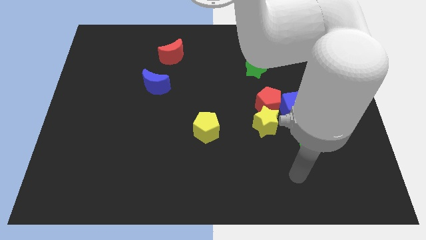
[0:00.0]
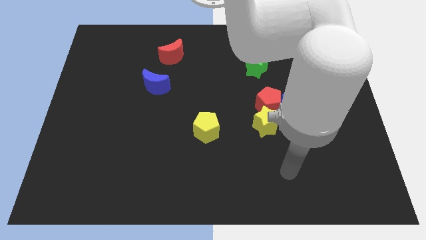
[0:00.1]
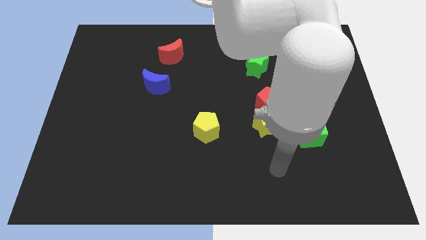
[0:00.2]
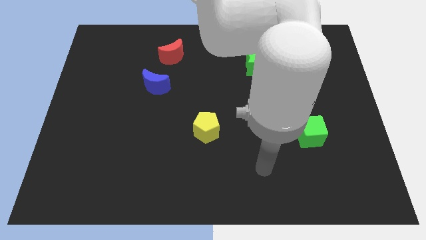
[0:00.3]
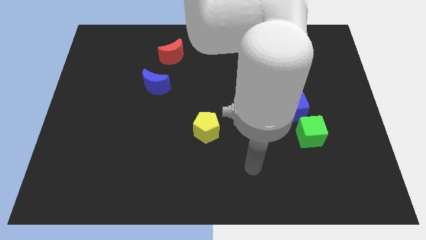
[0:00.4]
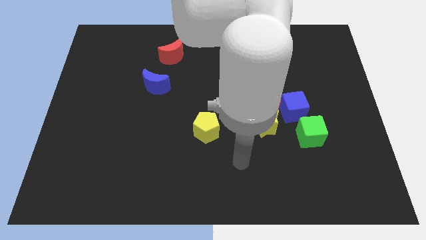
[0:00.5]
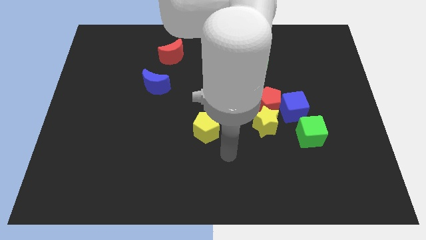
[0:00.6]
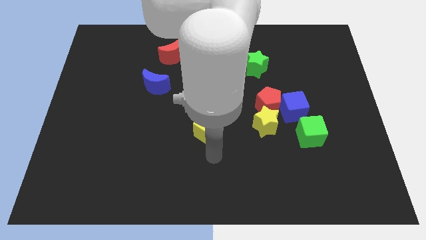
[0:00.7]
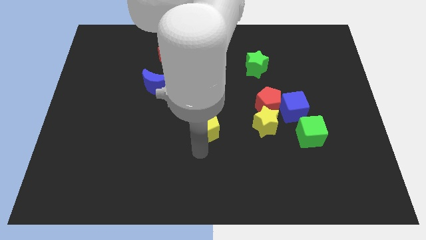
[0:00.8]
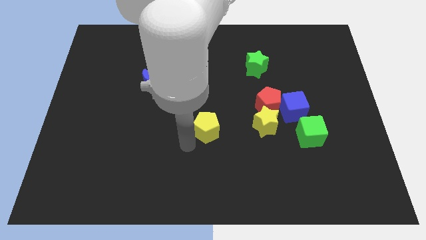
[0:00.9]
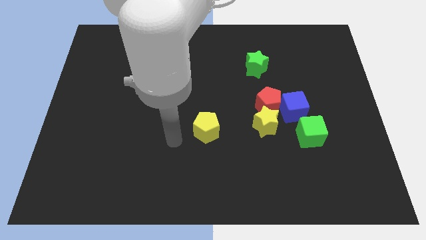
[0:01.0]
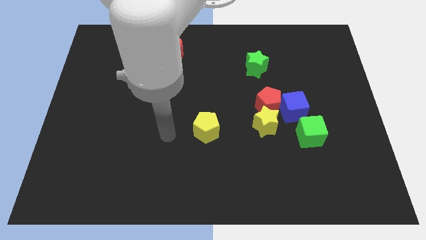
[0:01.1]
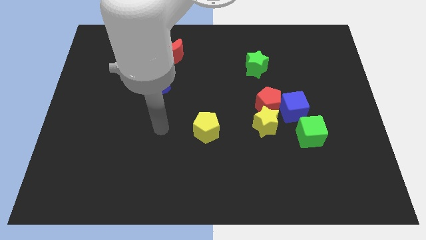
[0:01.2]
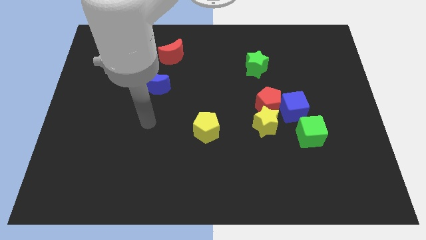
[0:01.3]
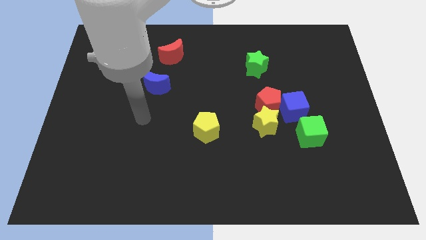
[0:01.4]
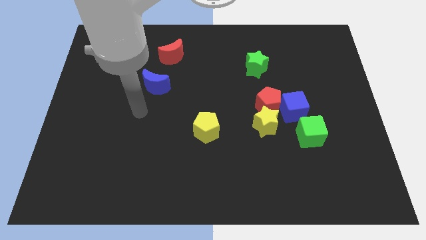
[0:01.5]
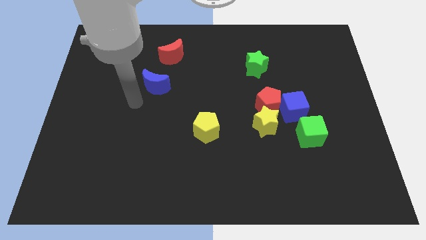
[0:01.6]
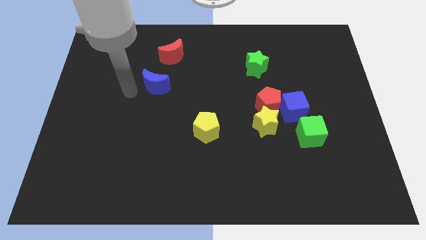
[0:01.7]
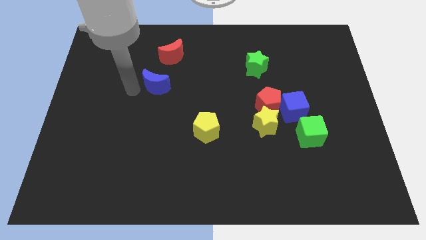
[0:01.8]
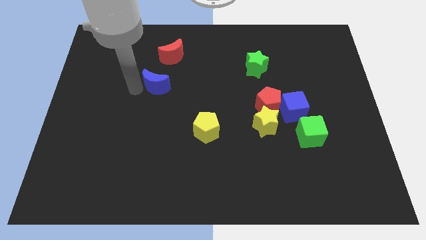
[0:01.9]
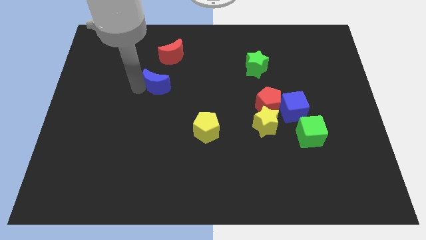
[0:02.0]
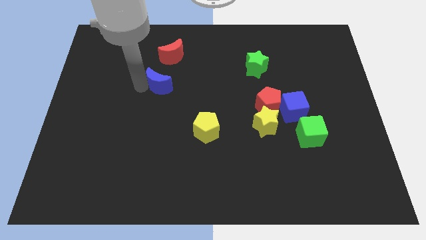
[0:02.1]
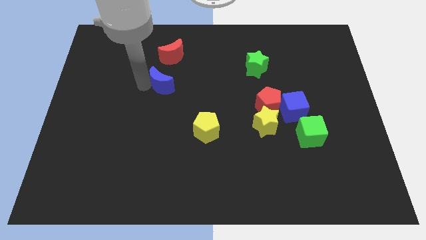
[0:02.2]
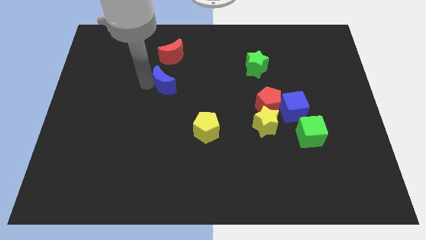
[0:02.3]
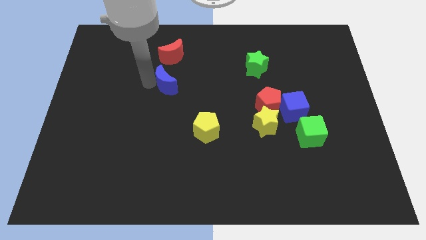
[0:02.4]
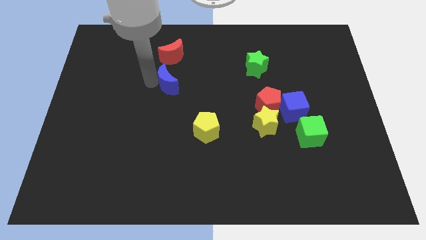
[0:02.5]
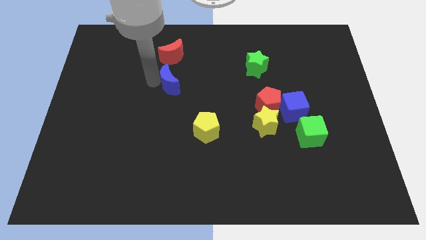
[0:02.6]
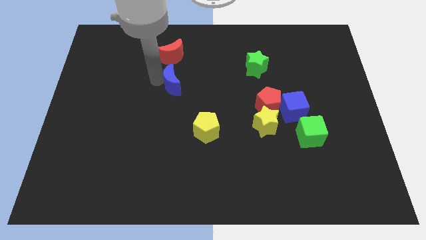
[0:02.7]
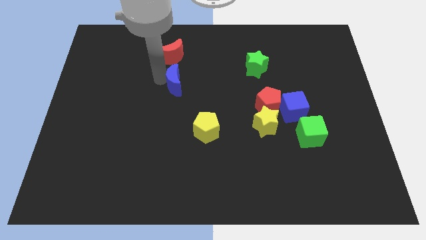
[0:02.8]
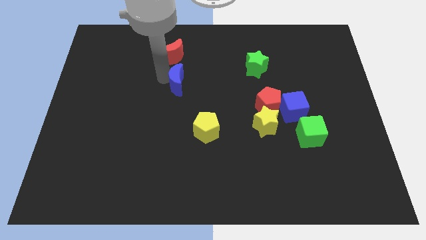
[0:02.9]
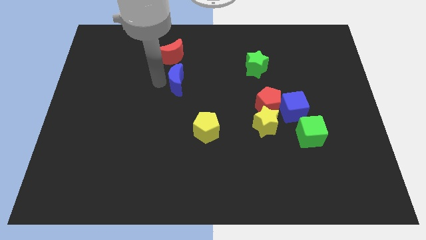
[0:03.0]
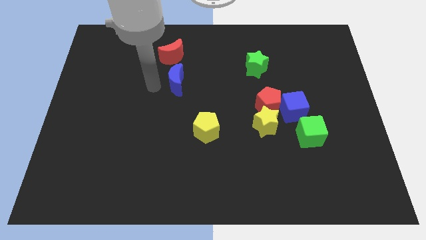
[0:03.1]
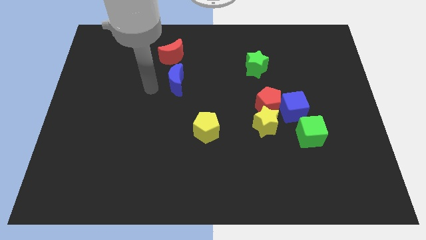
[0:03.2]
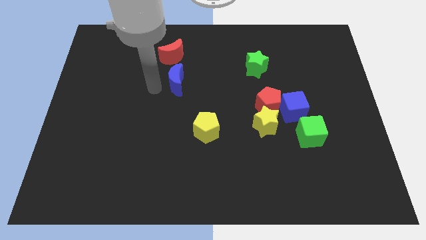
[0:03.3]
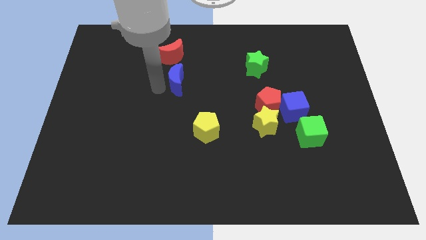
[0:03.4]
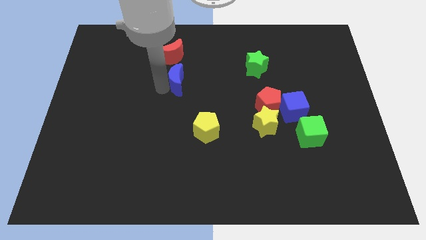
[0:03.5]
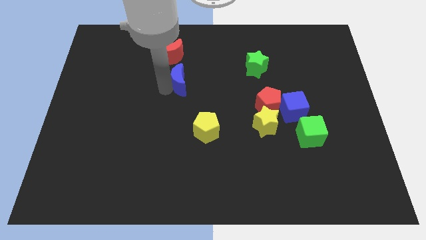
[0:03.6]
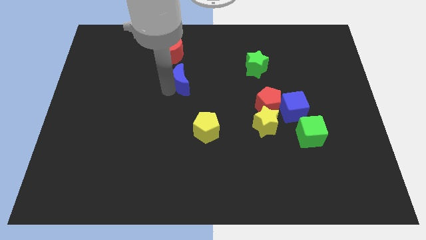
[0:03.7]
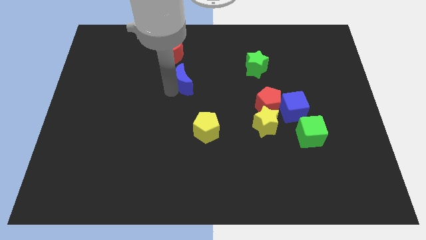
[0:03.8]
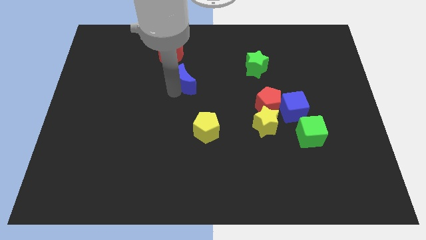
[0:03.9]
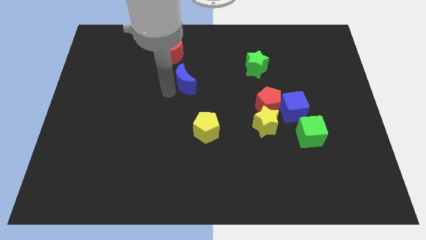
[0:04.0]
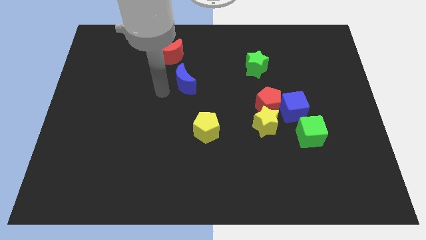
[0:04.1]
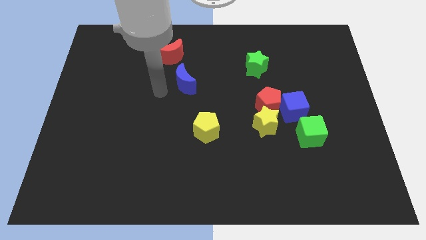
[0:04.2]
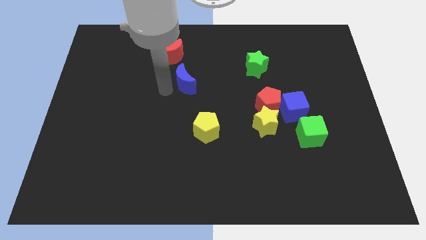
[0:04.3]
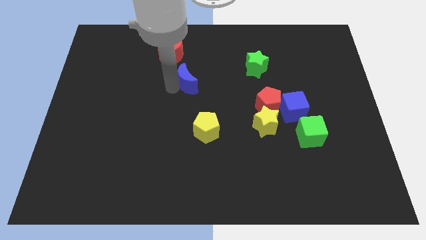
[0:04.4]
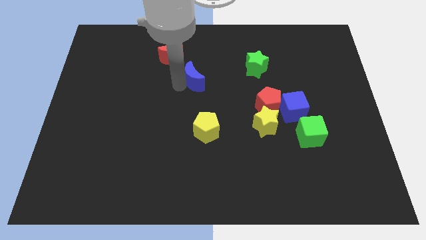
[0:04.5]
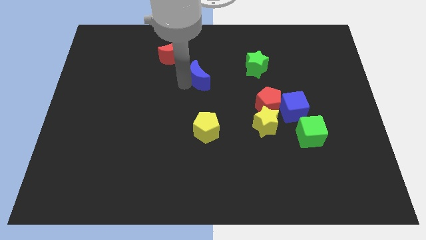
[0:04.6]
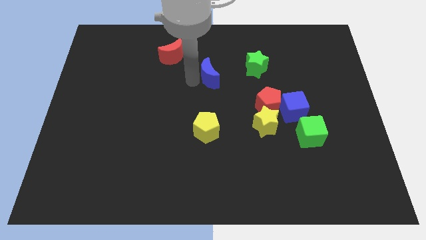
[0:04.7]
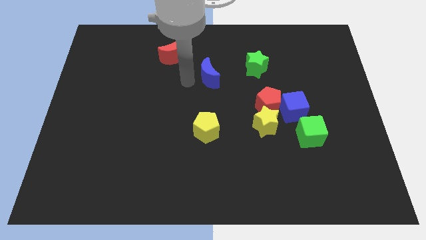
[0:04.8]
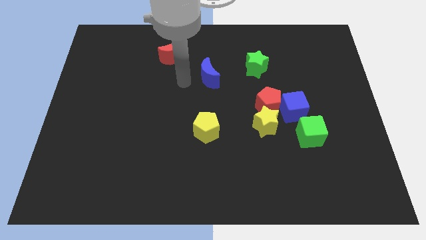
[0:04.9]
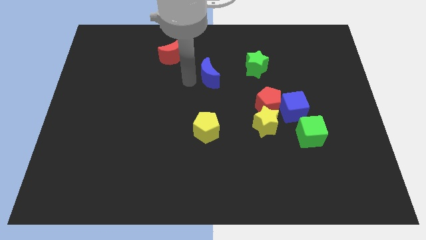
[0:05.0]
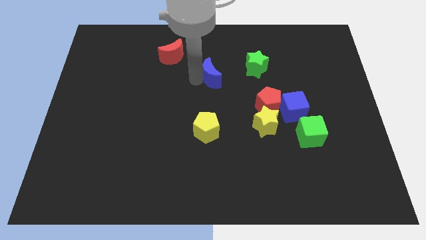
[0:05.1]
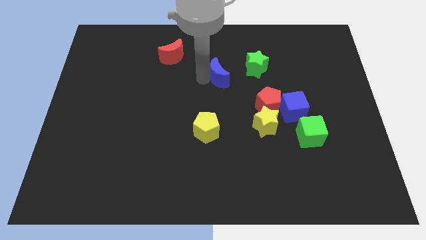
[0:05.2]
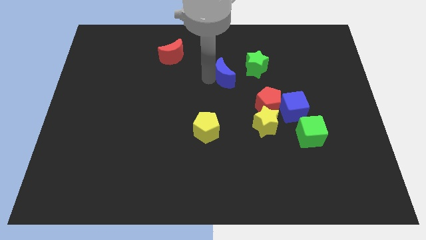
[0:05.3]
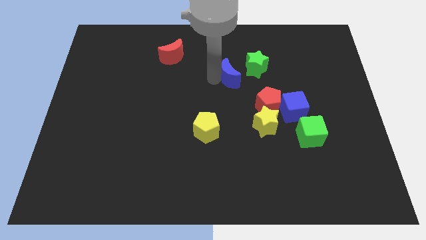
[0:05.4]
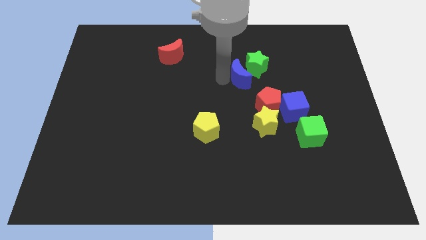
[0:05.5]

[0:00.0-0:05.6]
slide the blue moon next to the green star

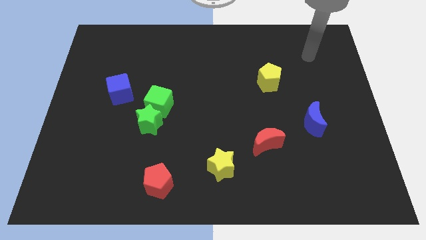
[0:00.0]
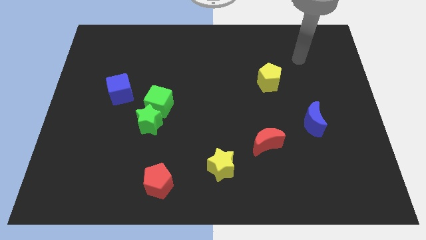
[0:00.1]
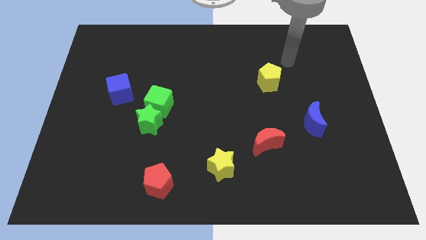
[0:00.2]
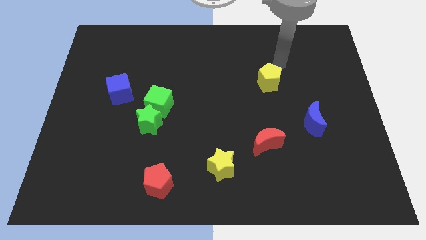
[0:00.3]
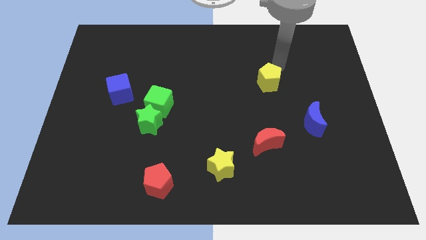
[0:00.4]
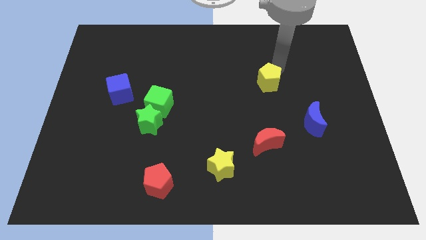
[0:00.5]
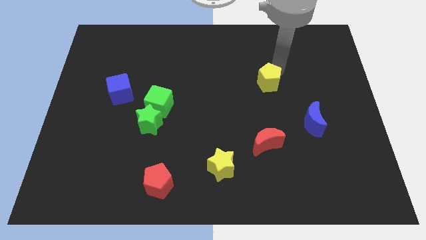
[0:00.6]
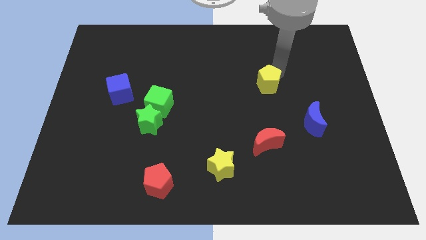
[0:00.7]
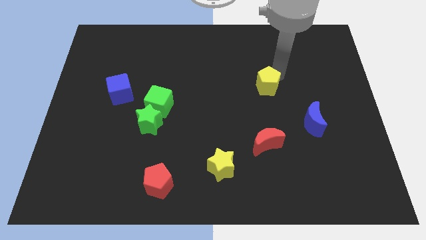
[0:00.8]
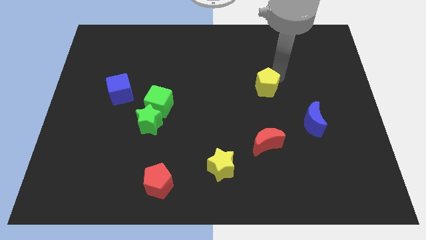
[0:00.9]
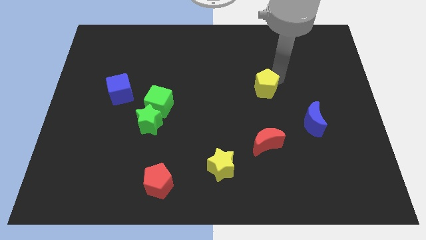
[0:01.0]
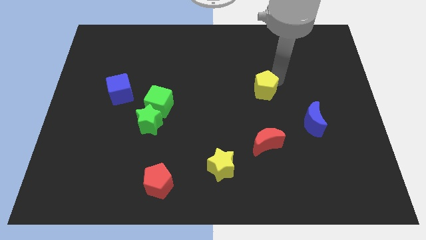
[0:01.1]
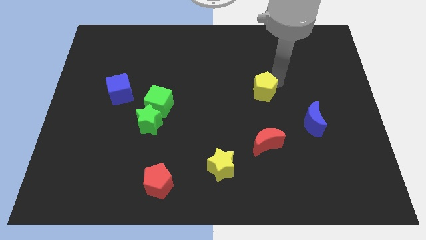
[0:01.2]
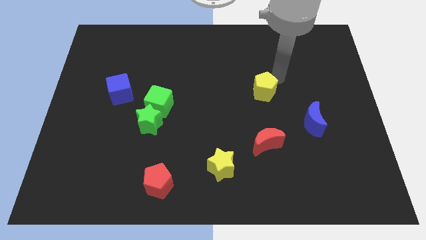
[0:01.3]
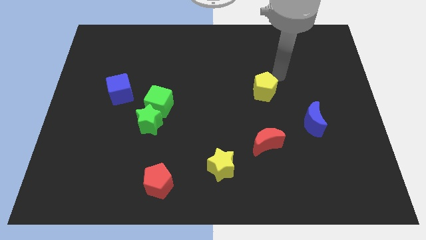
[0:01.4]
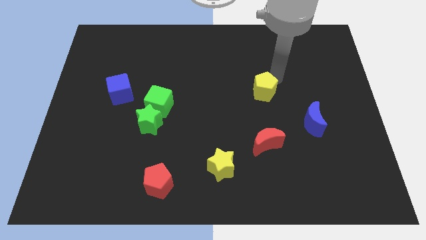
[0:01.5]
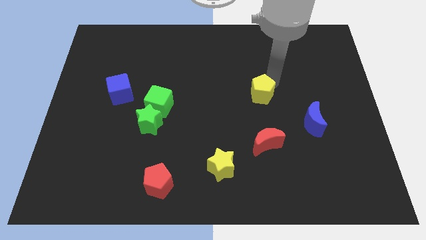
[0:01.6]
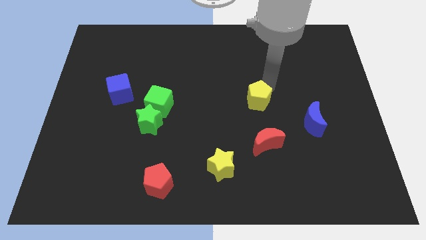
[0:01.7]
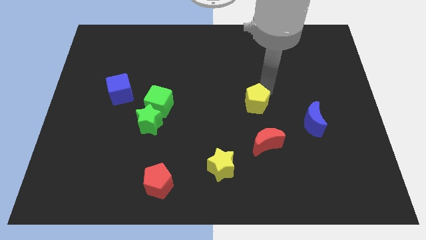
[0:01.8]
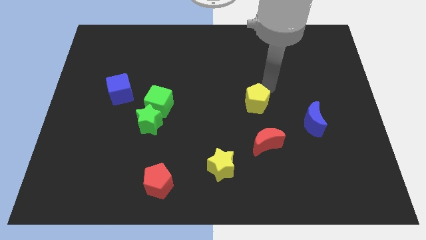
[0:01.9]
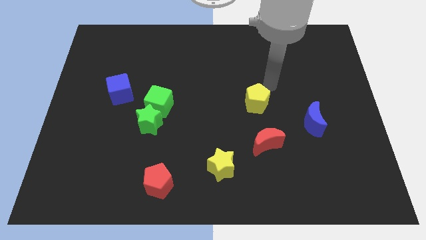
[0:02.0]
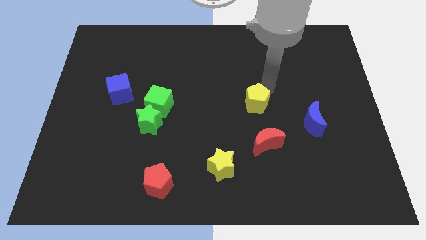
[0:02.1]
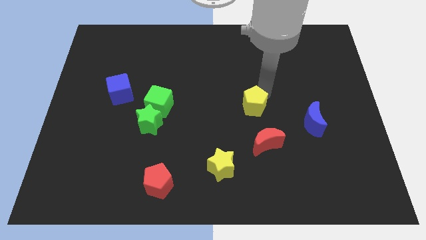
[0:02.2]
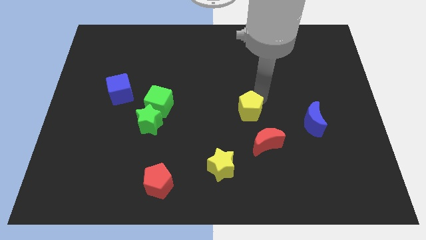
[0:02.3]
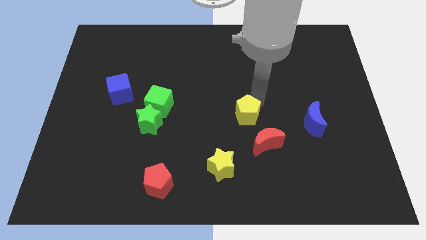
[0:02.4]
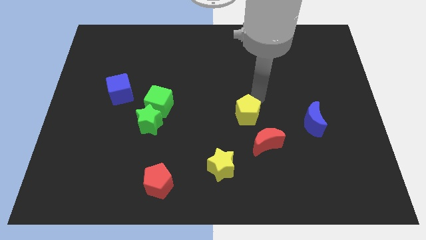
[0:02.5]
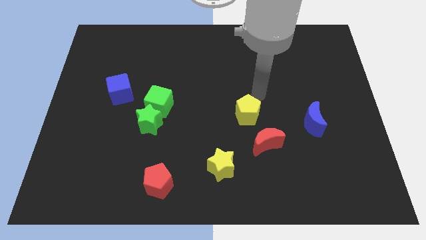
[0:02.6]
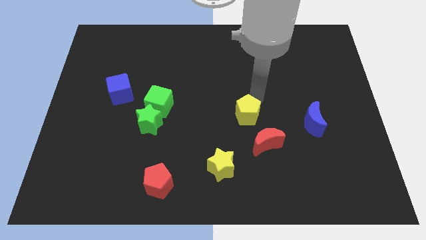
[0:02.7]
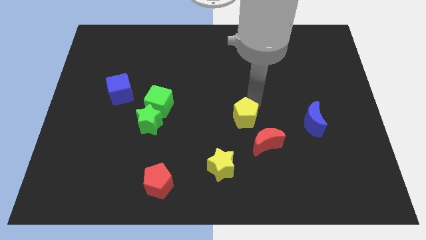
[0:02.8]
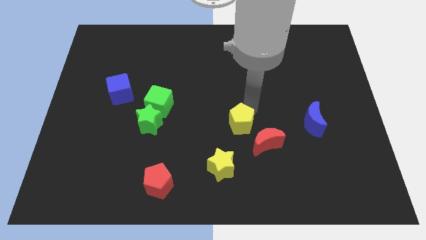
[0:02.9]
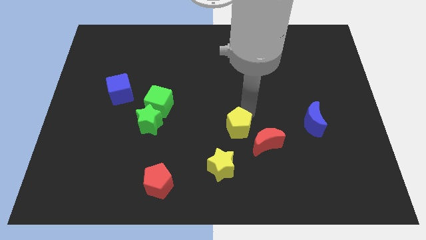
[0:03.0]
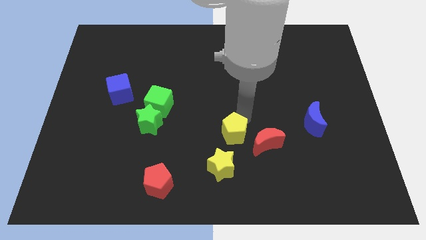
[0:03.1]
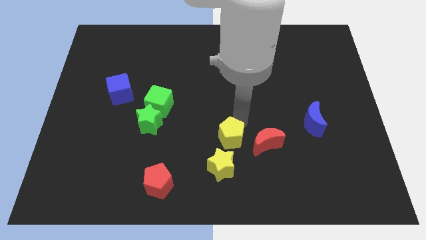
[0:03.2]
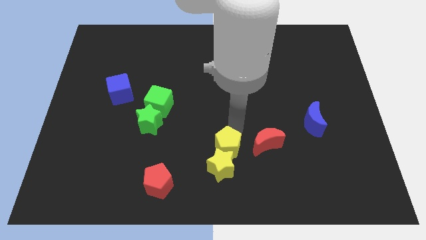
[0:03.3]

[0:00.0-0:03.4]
slide the yellow pentagon towards the yellow star
